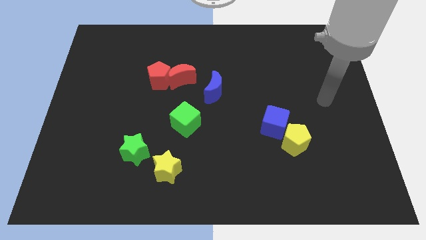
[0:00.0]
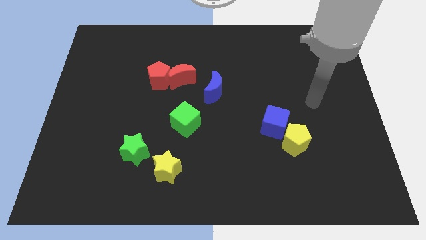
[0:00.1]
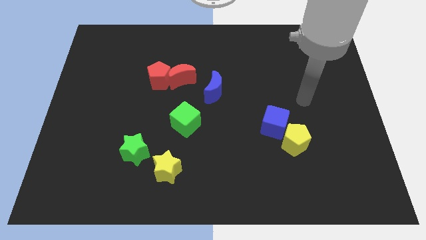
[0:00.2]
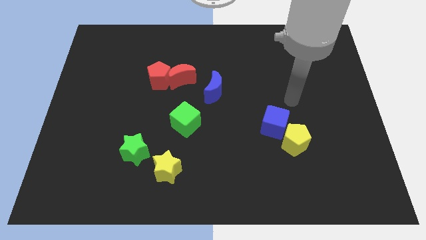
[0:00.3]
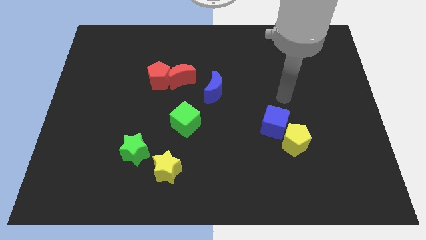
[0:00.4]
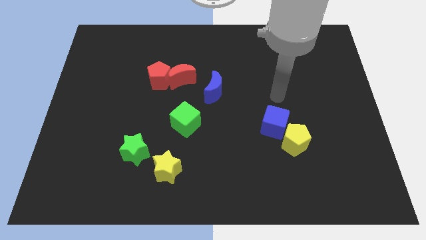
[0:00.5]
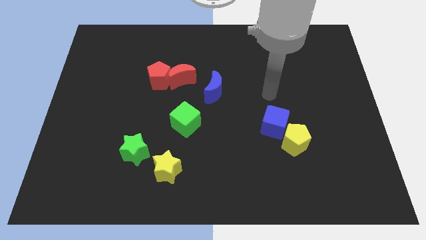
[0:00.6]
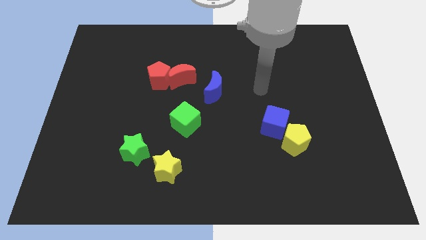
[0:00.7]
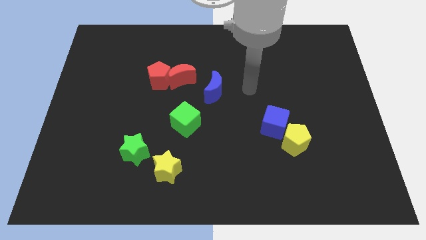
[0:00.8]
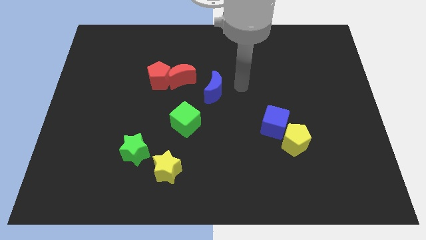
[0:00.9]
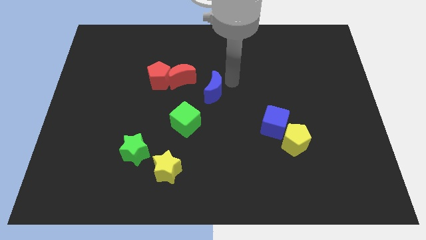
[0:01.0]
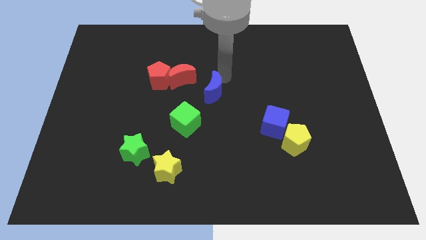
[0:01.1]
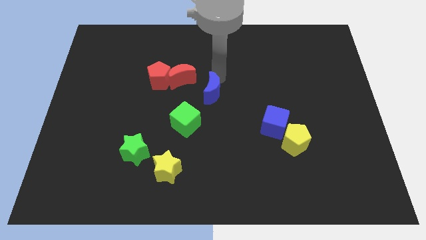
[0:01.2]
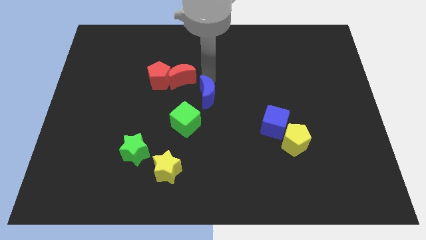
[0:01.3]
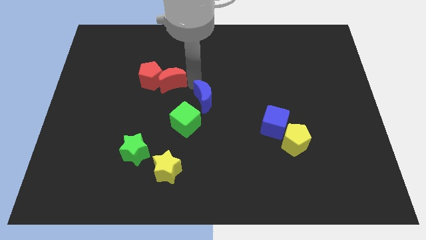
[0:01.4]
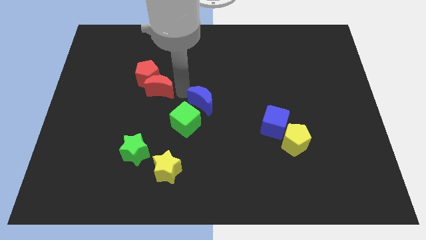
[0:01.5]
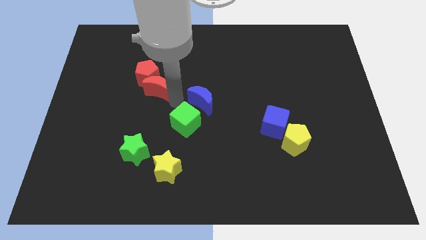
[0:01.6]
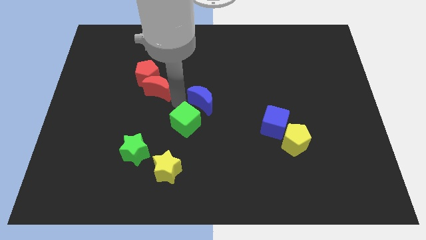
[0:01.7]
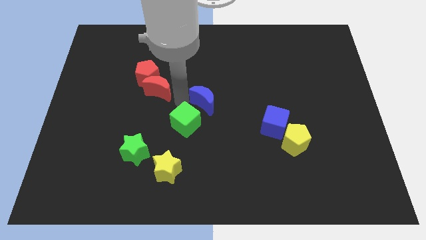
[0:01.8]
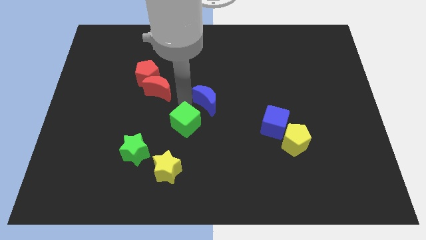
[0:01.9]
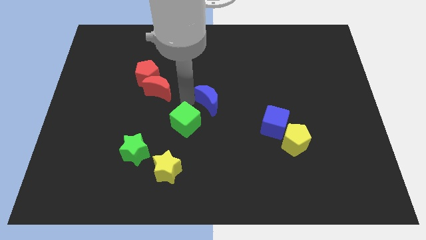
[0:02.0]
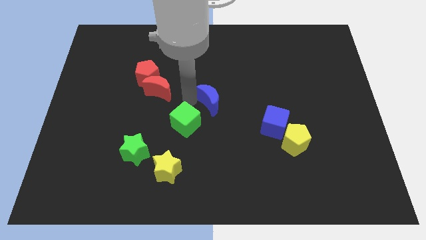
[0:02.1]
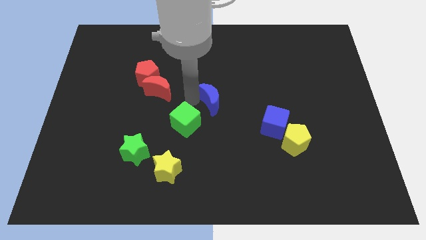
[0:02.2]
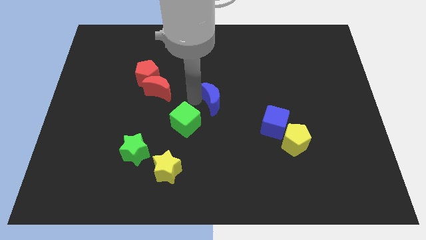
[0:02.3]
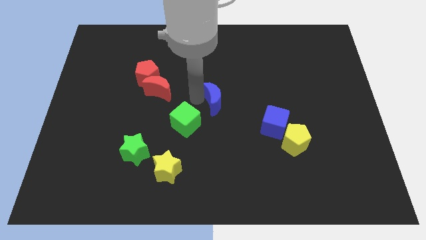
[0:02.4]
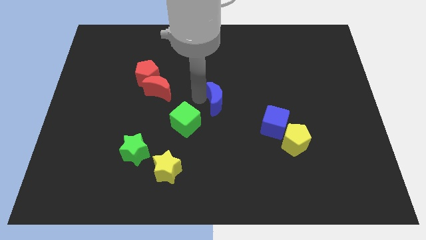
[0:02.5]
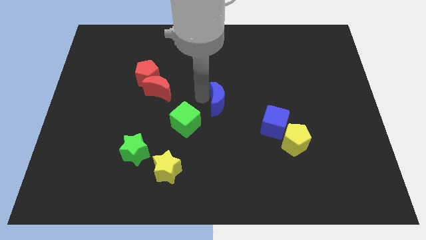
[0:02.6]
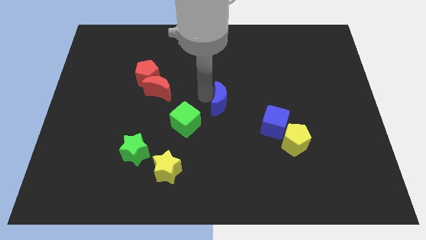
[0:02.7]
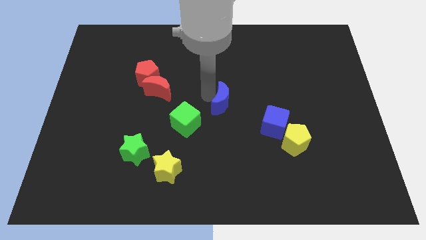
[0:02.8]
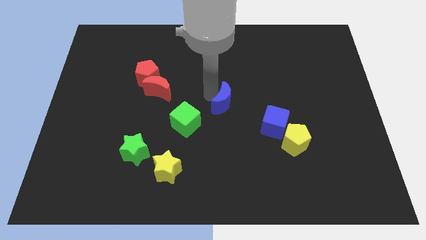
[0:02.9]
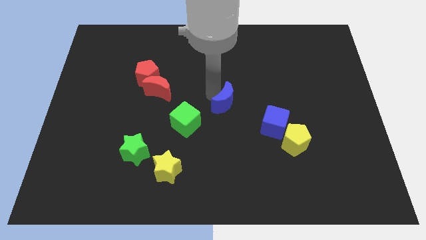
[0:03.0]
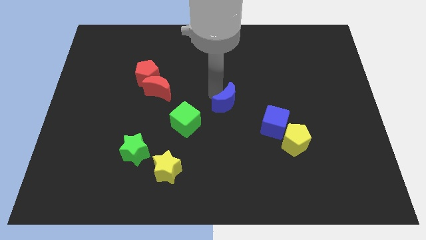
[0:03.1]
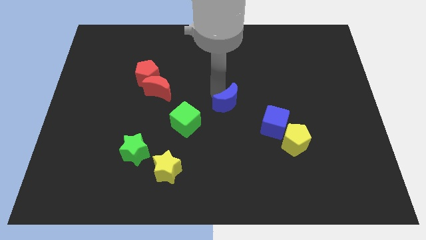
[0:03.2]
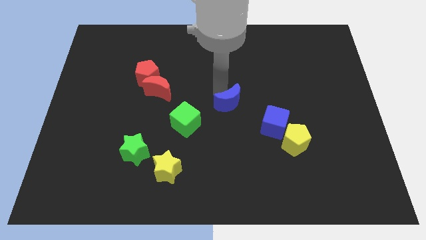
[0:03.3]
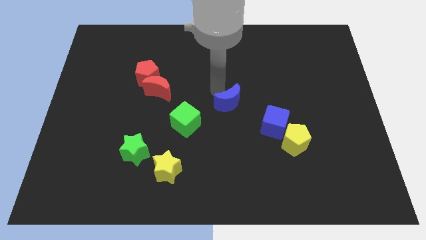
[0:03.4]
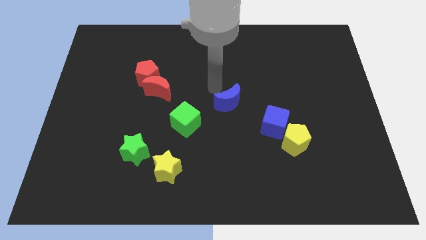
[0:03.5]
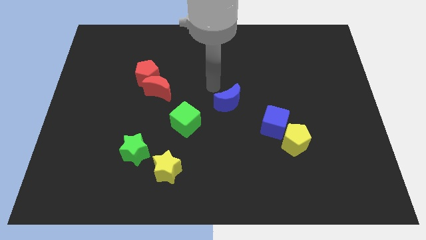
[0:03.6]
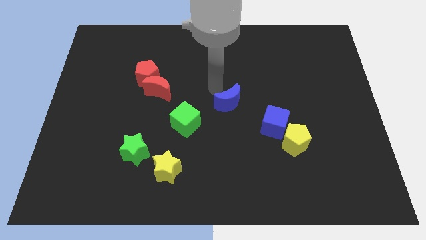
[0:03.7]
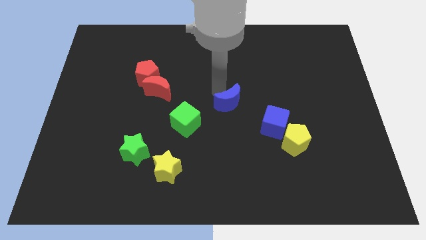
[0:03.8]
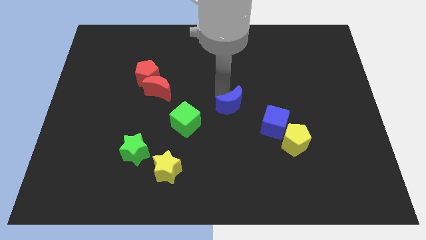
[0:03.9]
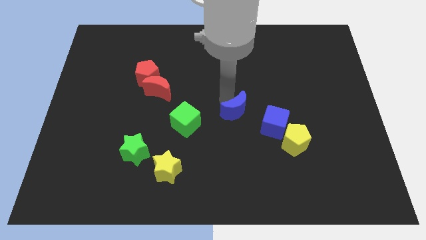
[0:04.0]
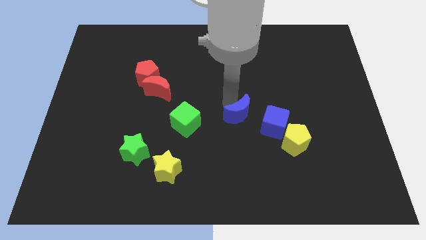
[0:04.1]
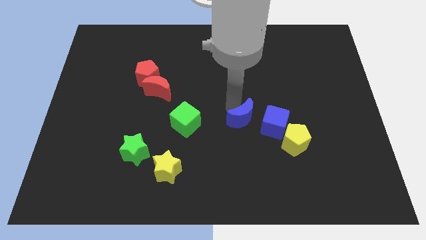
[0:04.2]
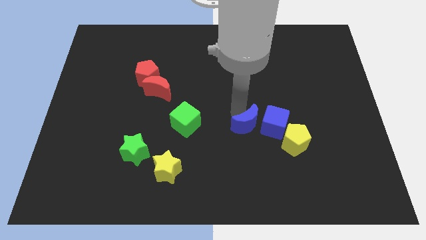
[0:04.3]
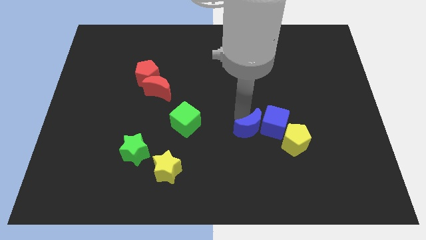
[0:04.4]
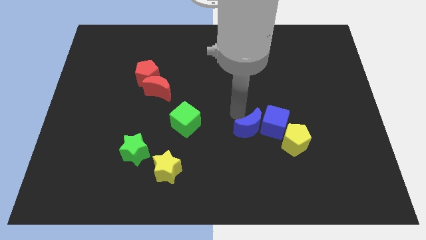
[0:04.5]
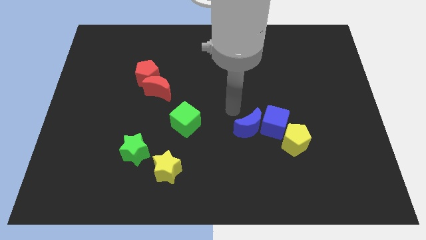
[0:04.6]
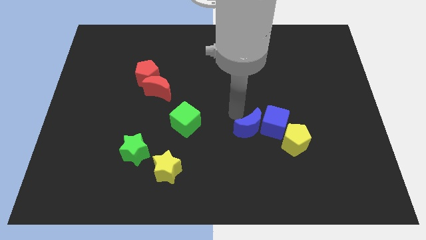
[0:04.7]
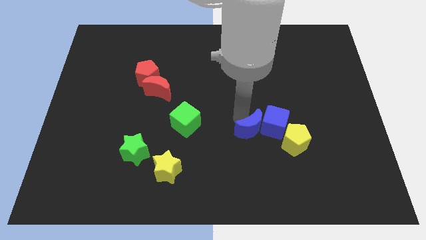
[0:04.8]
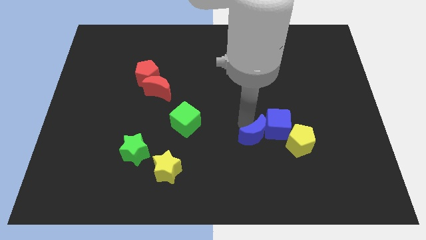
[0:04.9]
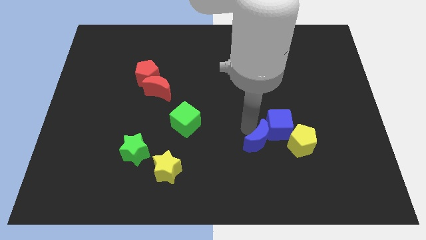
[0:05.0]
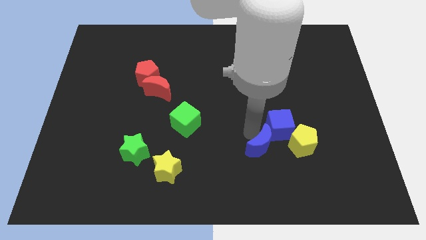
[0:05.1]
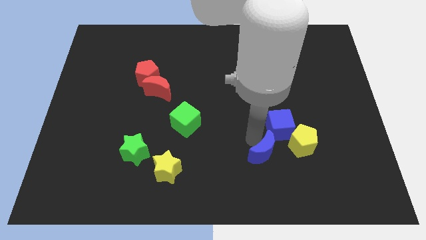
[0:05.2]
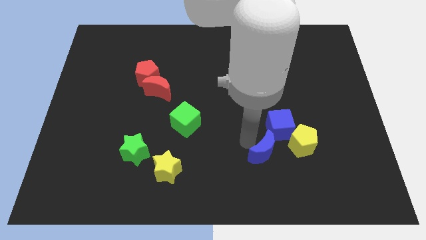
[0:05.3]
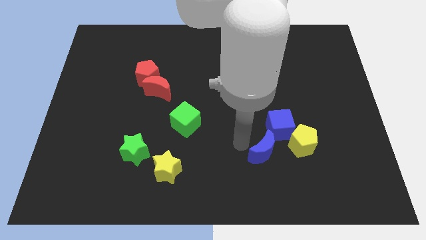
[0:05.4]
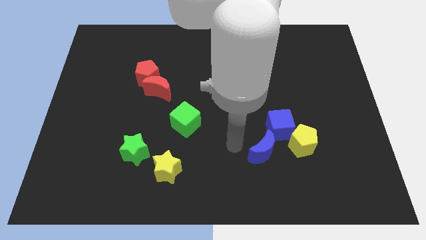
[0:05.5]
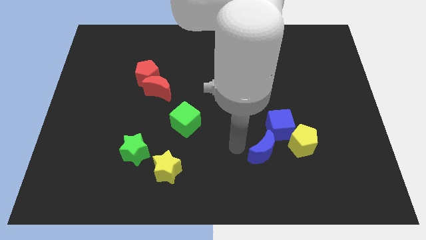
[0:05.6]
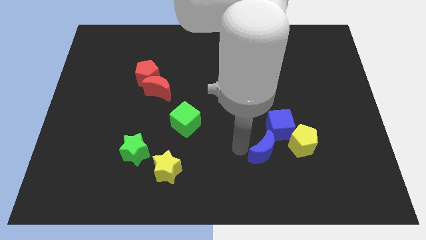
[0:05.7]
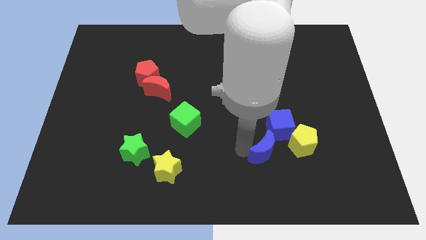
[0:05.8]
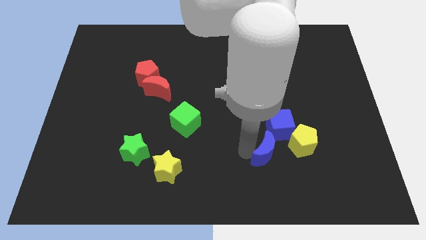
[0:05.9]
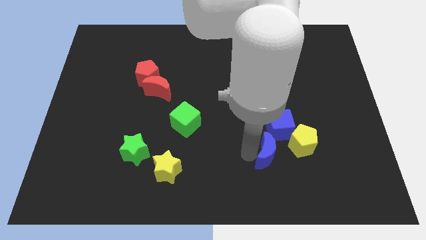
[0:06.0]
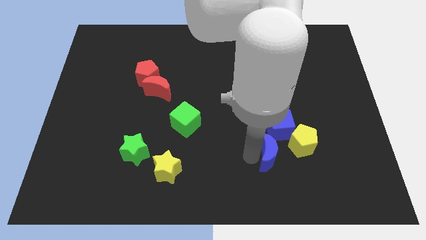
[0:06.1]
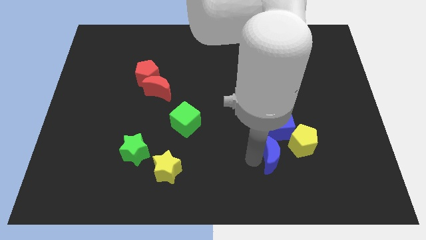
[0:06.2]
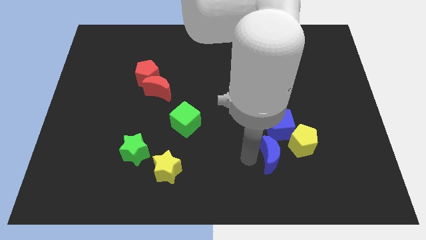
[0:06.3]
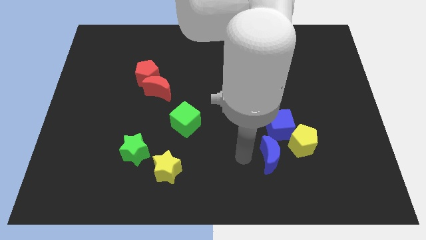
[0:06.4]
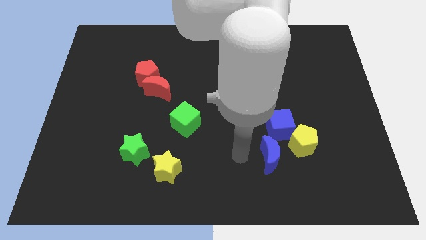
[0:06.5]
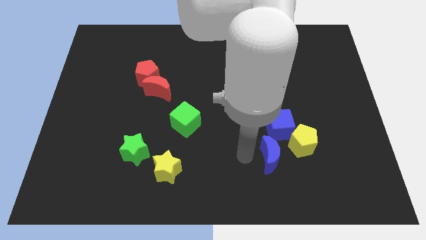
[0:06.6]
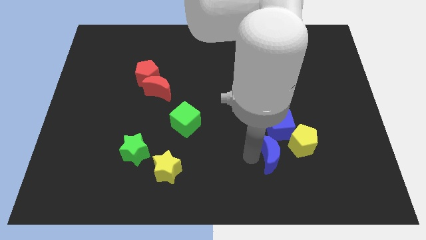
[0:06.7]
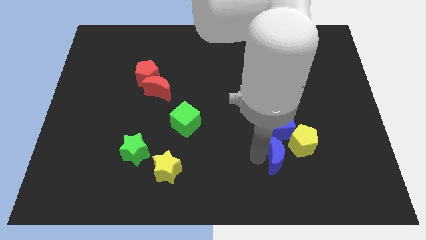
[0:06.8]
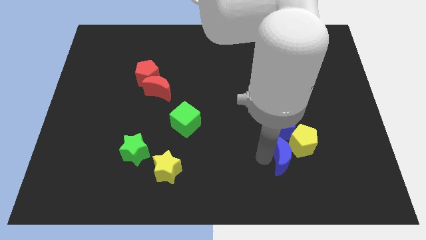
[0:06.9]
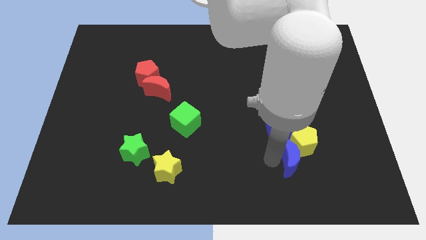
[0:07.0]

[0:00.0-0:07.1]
put the blue moon to the bottom right side of the blue cube
